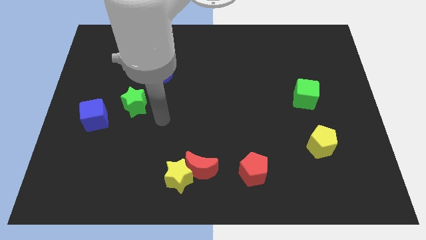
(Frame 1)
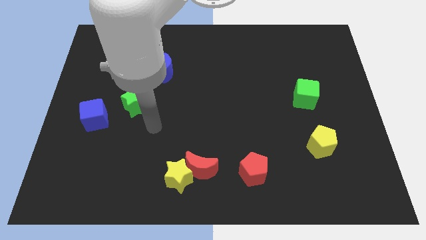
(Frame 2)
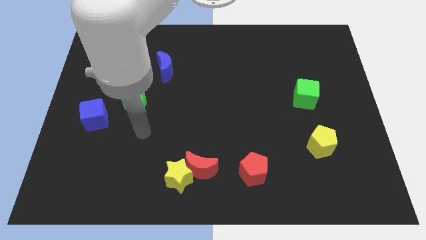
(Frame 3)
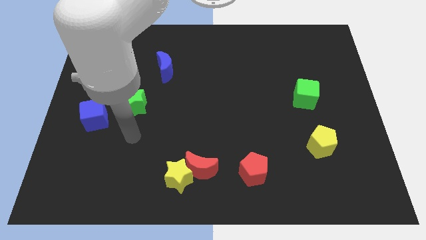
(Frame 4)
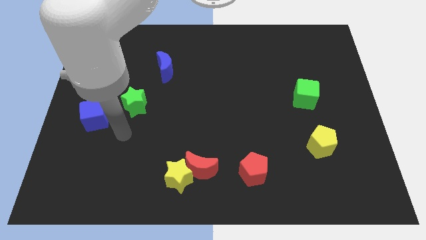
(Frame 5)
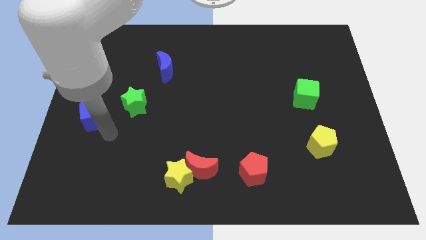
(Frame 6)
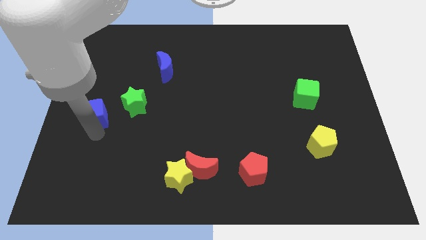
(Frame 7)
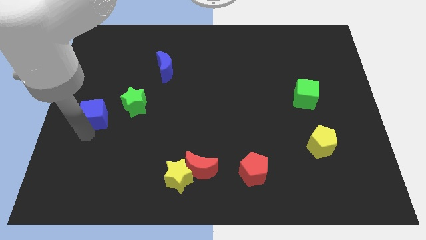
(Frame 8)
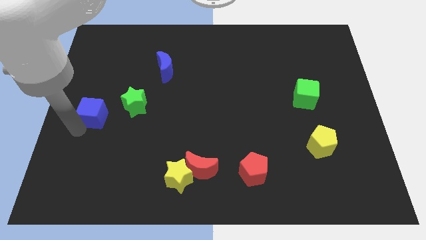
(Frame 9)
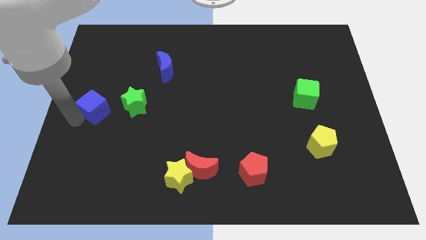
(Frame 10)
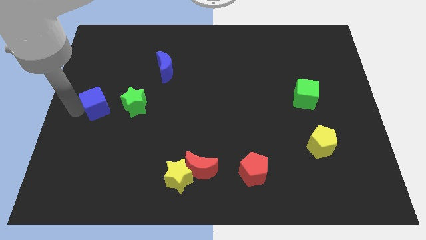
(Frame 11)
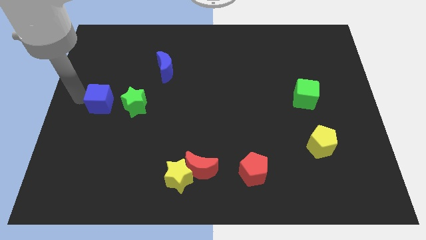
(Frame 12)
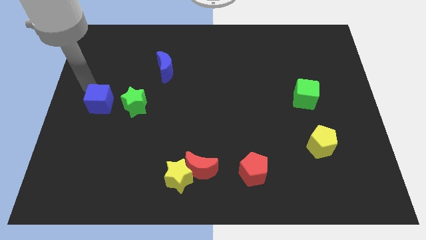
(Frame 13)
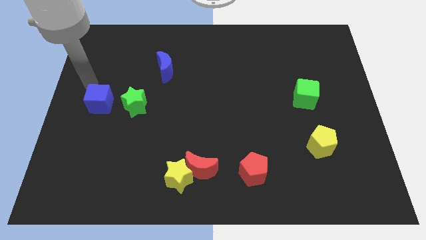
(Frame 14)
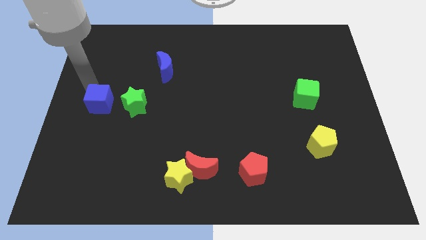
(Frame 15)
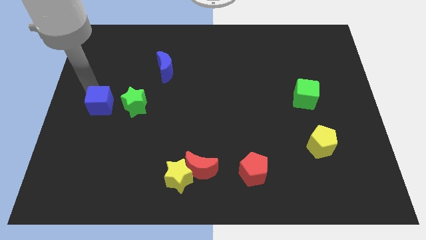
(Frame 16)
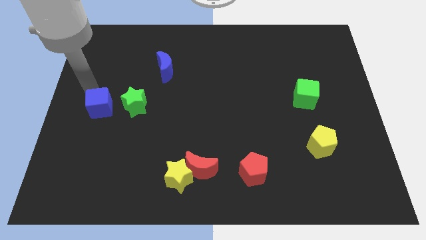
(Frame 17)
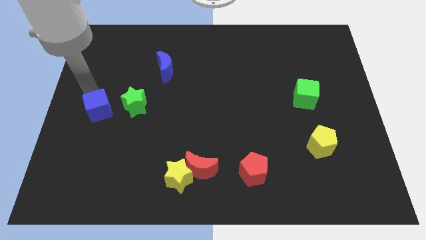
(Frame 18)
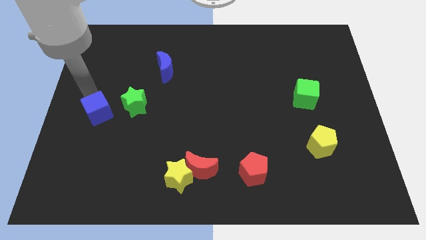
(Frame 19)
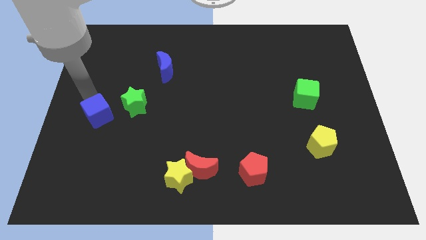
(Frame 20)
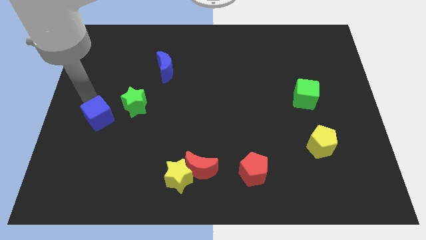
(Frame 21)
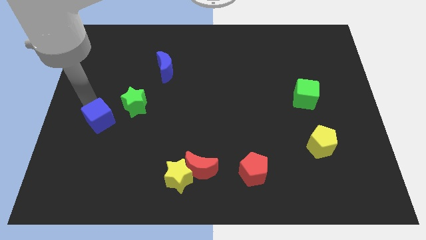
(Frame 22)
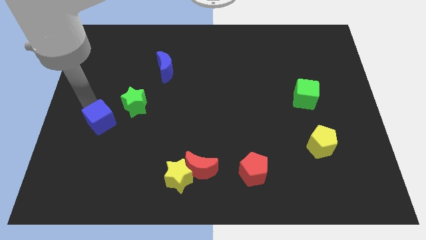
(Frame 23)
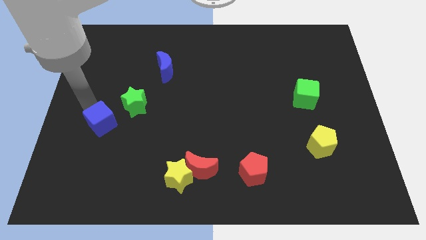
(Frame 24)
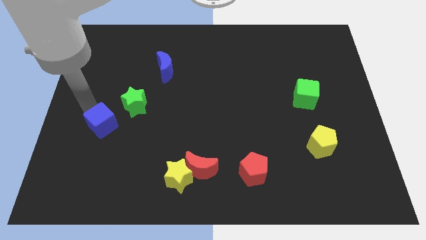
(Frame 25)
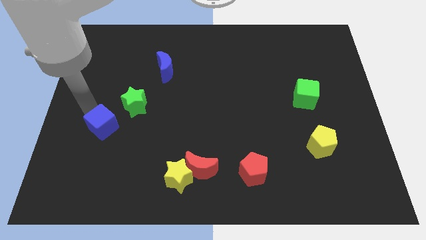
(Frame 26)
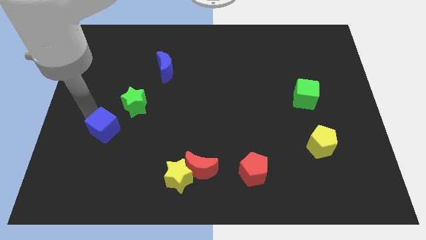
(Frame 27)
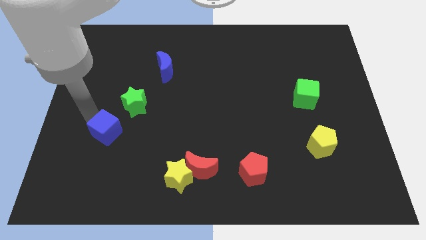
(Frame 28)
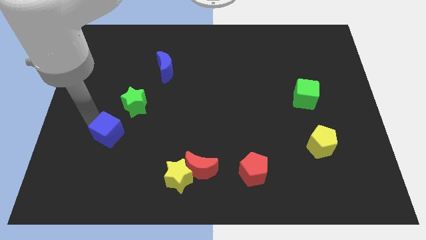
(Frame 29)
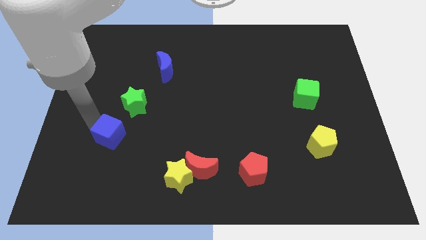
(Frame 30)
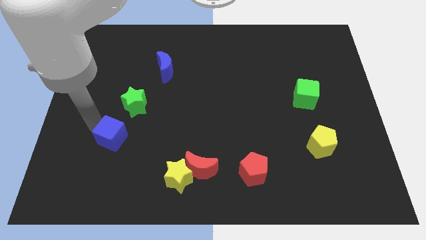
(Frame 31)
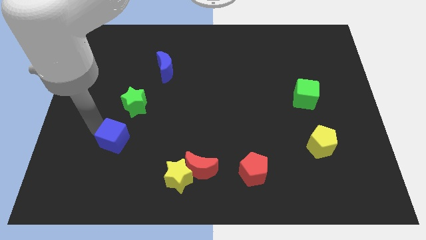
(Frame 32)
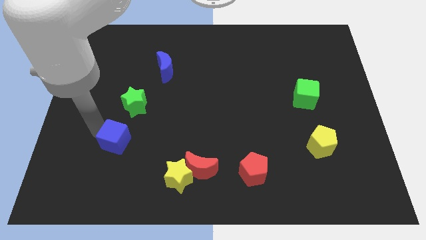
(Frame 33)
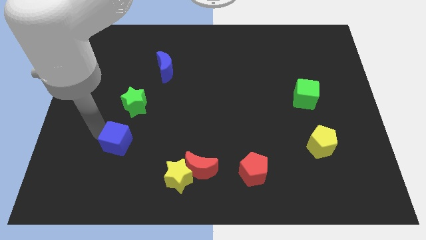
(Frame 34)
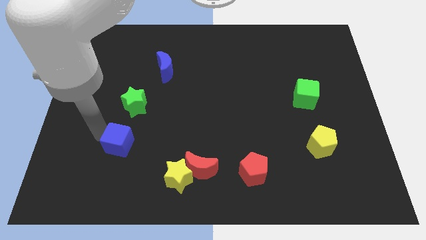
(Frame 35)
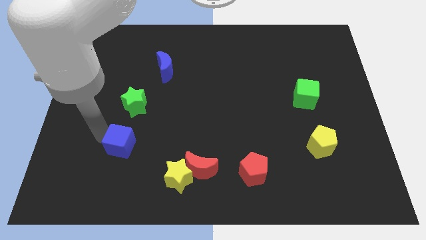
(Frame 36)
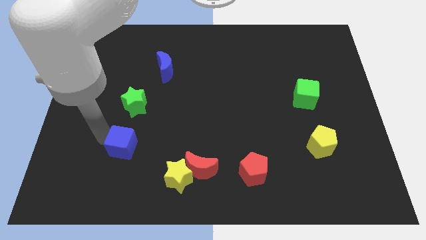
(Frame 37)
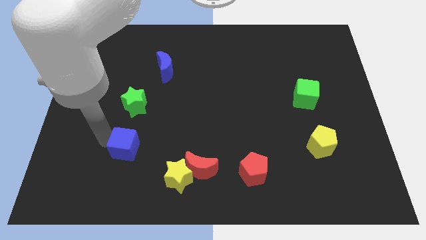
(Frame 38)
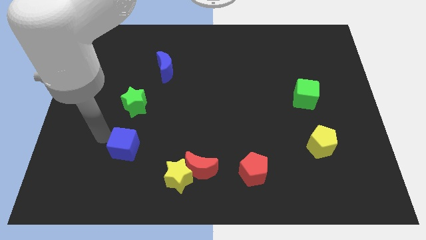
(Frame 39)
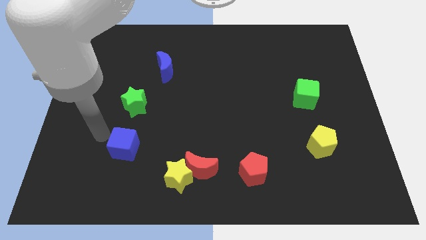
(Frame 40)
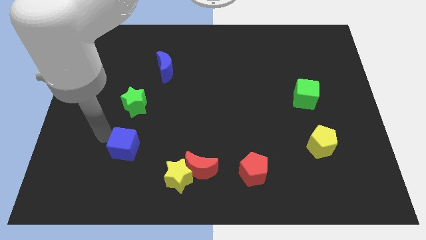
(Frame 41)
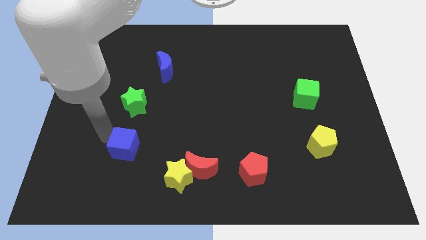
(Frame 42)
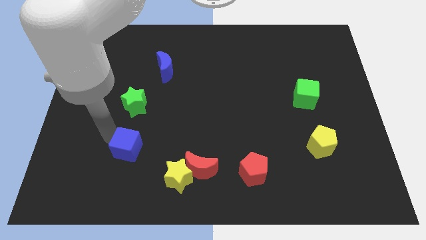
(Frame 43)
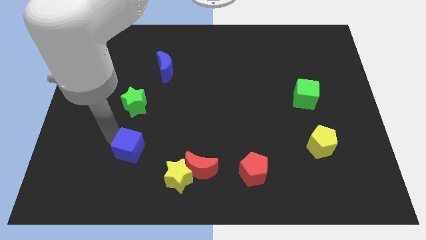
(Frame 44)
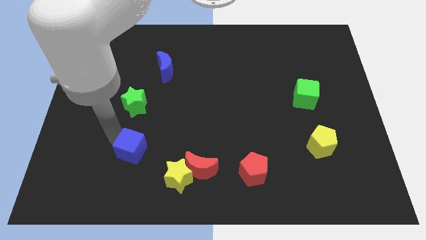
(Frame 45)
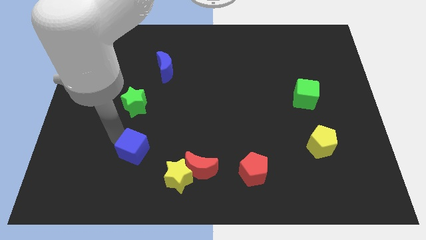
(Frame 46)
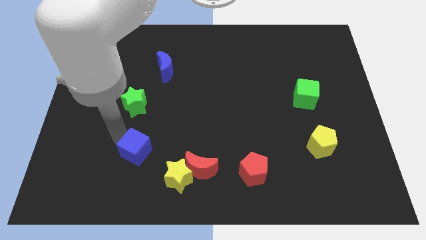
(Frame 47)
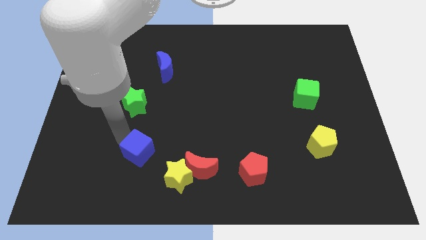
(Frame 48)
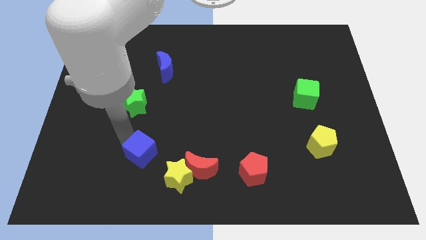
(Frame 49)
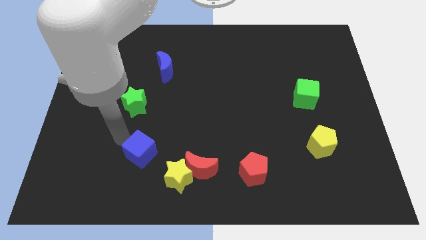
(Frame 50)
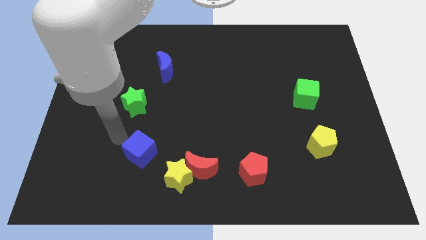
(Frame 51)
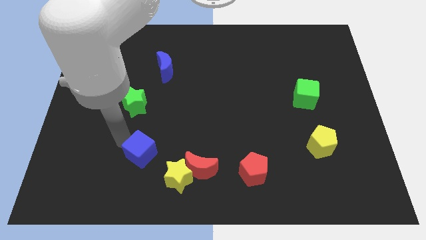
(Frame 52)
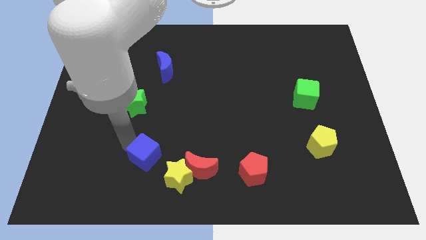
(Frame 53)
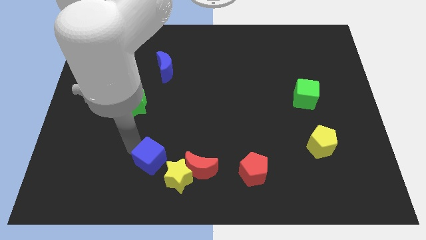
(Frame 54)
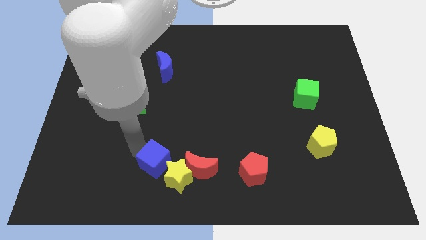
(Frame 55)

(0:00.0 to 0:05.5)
move the blue cube close to the yellow star

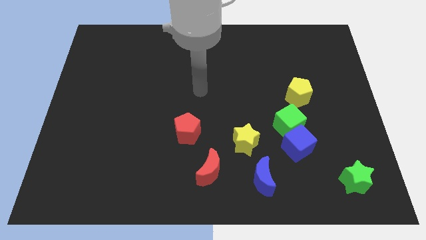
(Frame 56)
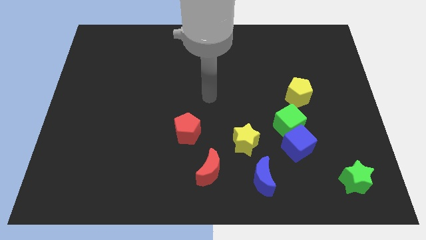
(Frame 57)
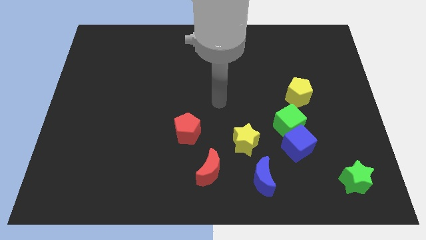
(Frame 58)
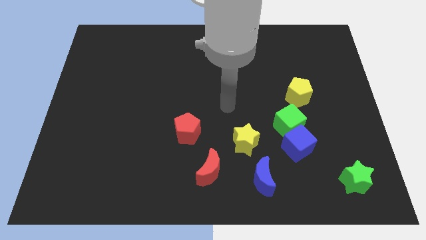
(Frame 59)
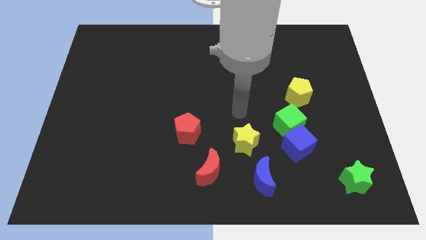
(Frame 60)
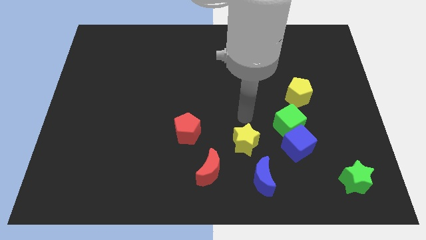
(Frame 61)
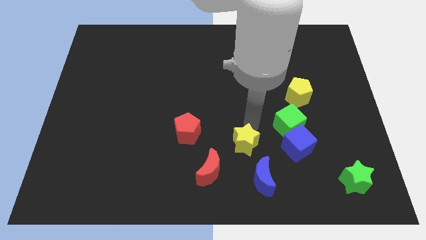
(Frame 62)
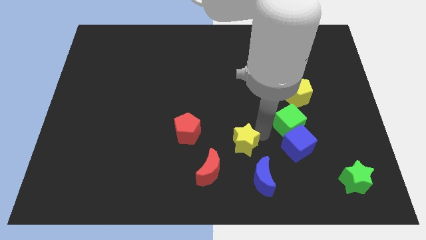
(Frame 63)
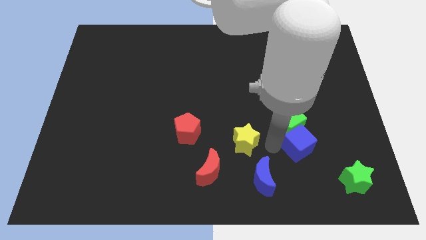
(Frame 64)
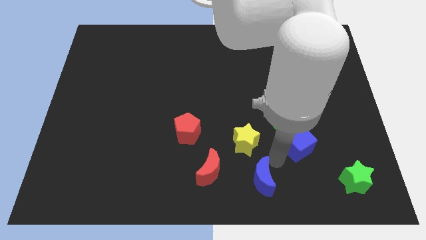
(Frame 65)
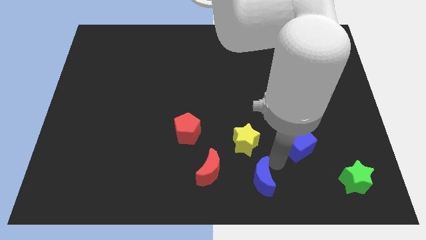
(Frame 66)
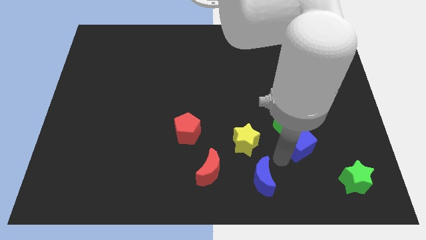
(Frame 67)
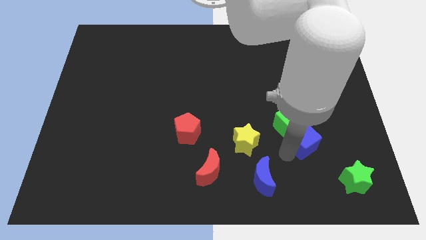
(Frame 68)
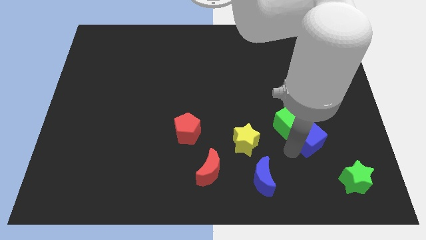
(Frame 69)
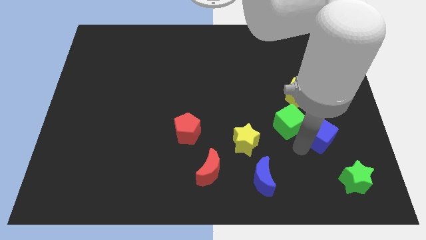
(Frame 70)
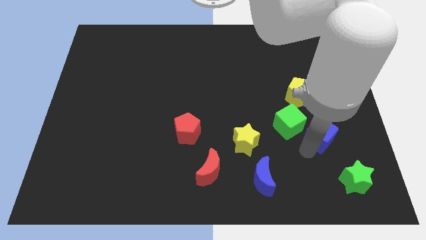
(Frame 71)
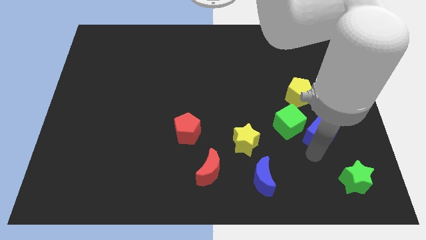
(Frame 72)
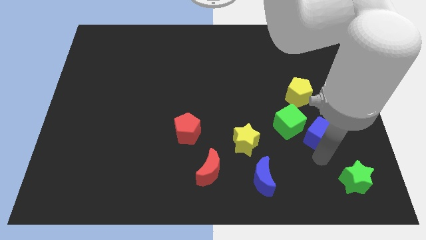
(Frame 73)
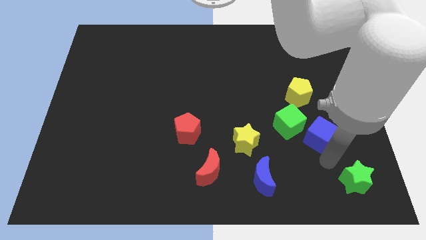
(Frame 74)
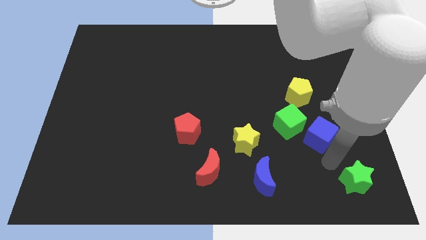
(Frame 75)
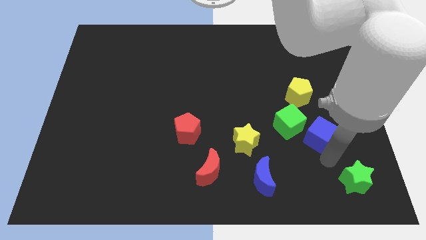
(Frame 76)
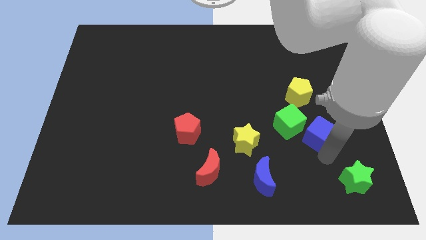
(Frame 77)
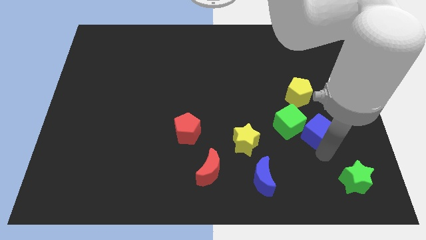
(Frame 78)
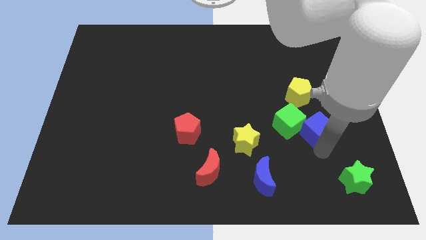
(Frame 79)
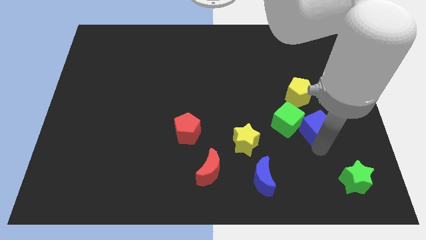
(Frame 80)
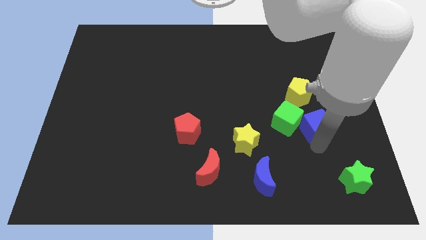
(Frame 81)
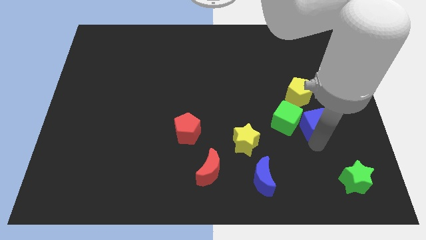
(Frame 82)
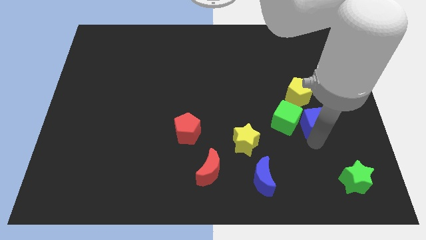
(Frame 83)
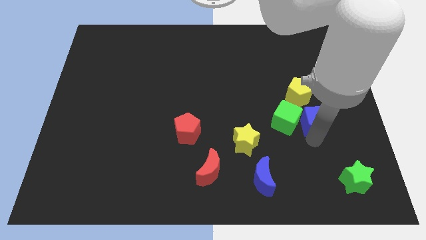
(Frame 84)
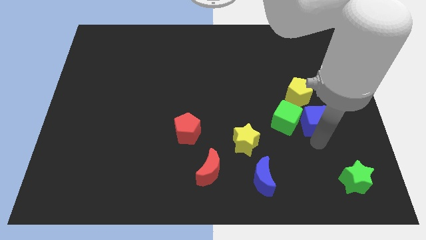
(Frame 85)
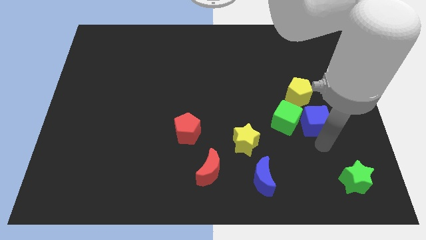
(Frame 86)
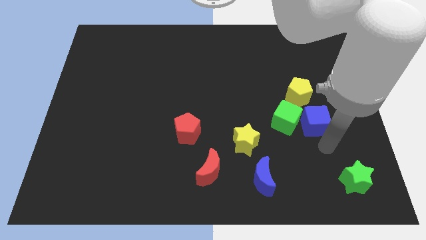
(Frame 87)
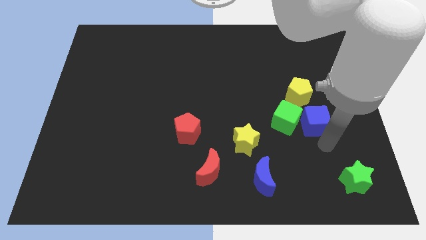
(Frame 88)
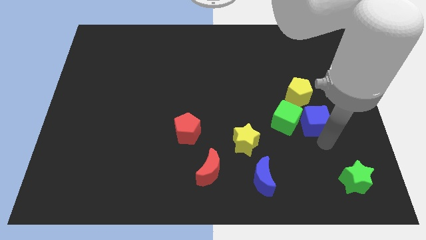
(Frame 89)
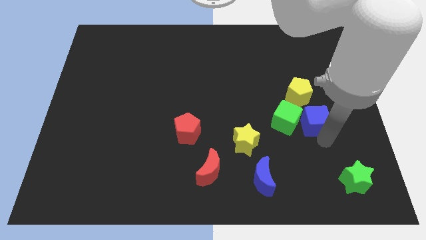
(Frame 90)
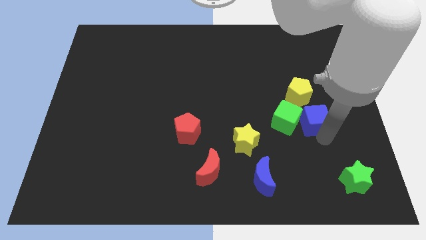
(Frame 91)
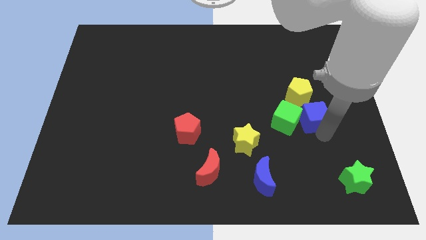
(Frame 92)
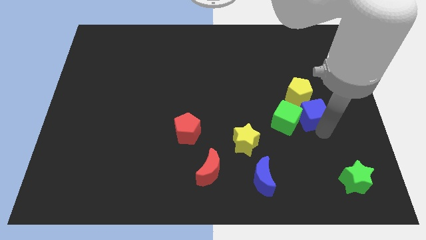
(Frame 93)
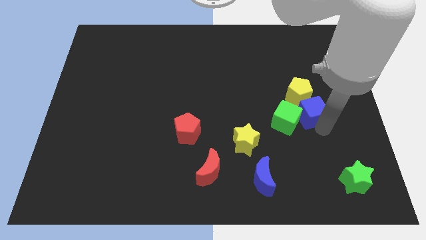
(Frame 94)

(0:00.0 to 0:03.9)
slide the blue cube next to the yellow pentagon
